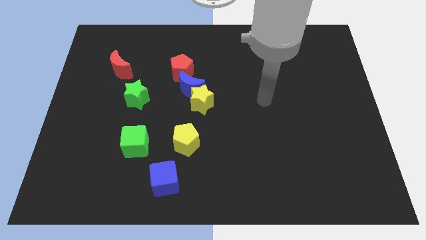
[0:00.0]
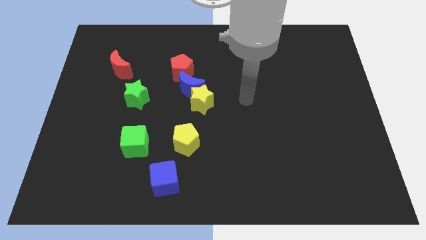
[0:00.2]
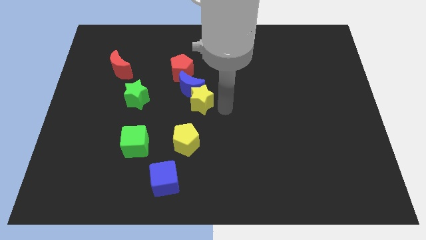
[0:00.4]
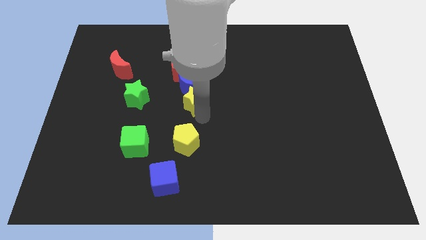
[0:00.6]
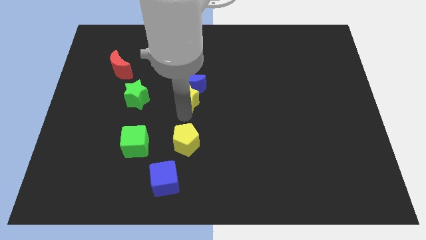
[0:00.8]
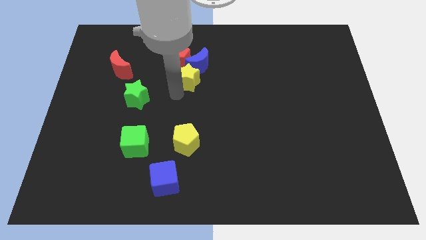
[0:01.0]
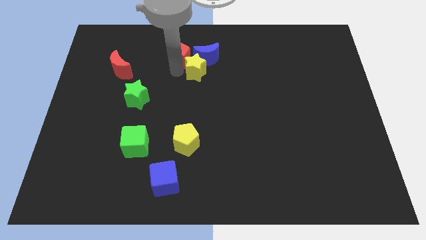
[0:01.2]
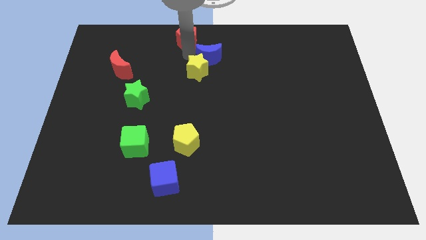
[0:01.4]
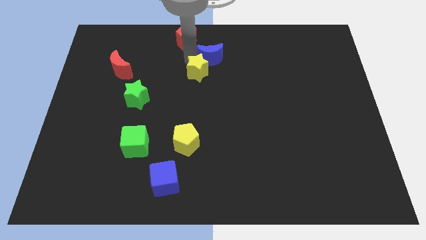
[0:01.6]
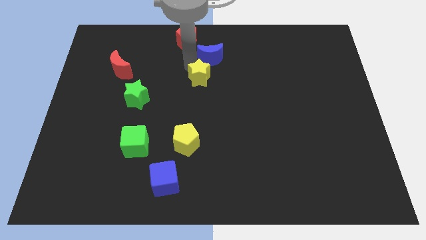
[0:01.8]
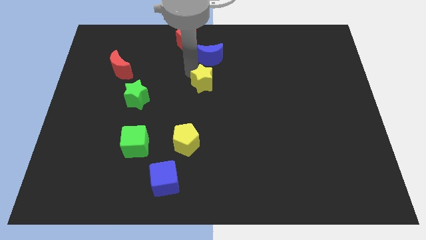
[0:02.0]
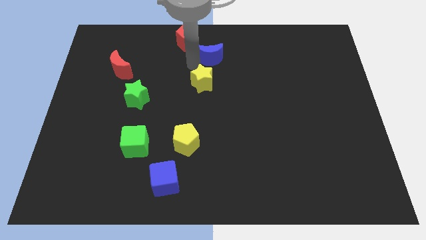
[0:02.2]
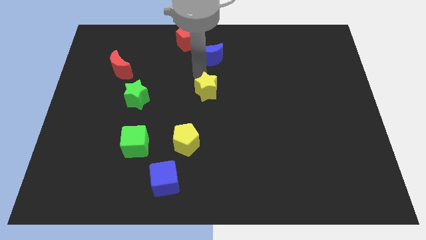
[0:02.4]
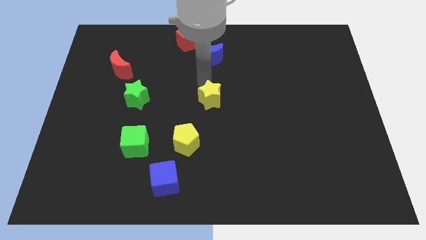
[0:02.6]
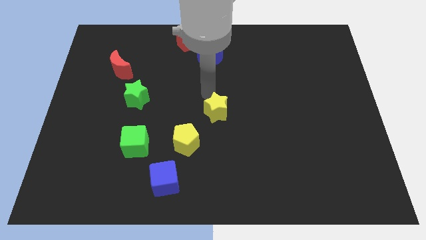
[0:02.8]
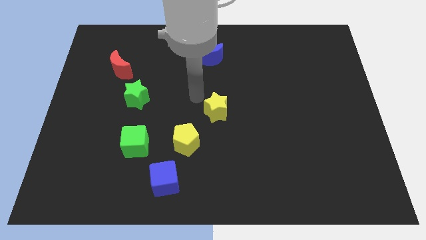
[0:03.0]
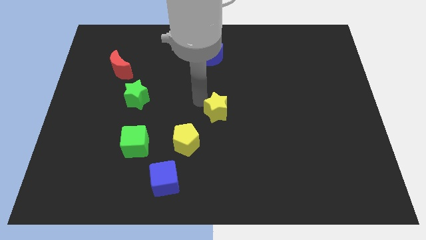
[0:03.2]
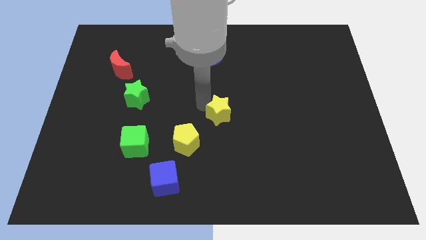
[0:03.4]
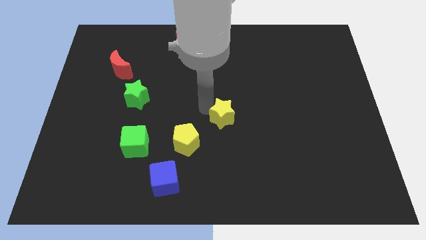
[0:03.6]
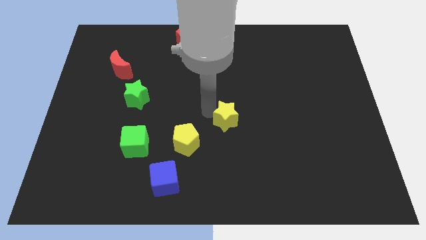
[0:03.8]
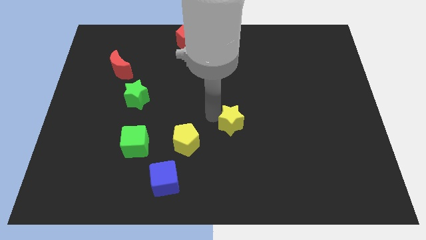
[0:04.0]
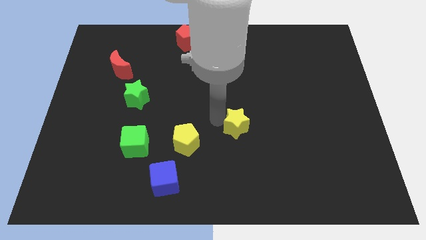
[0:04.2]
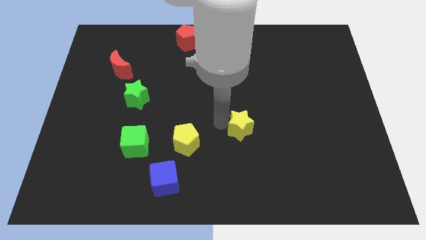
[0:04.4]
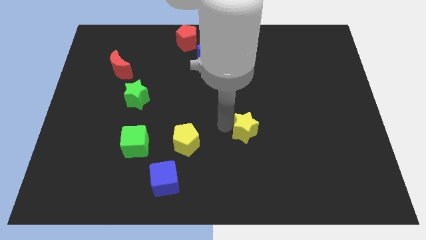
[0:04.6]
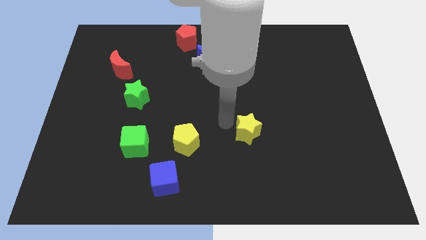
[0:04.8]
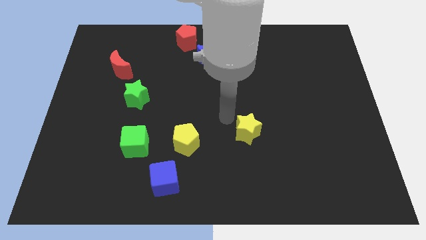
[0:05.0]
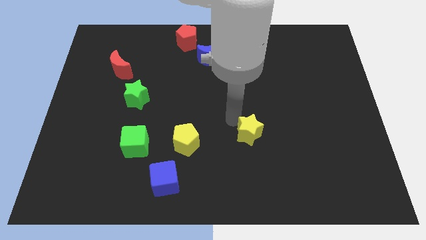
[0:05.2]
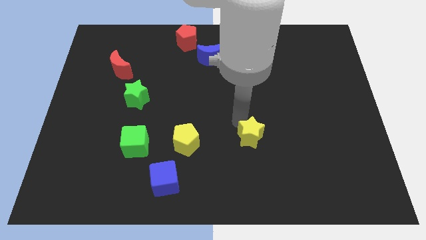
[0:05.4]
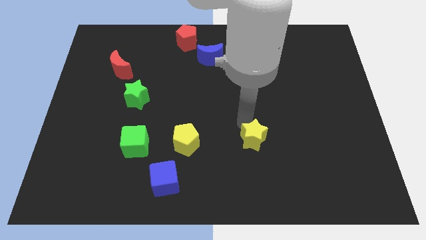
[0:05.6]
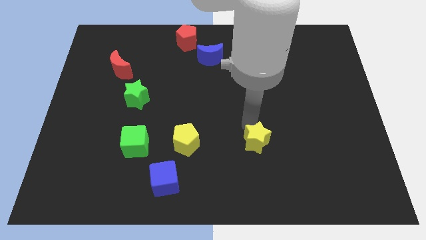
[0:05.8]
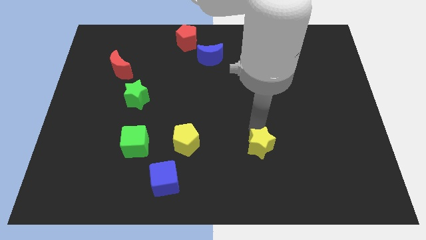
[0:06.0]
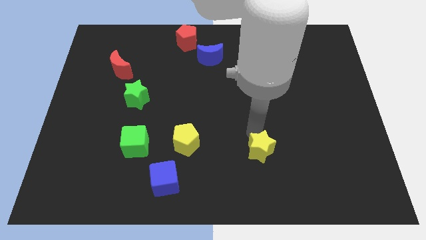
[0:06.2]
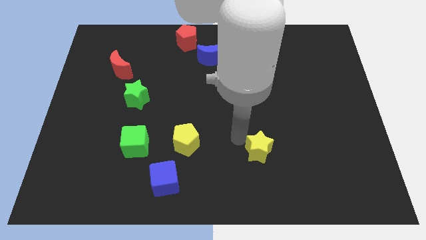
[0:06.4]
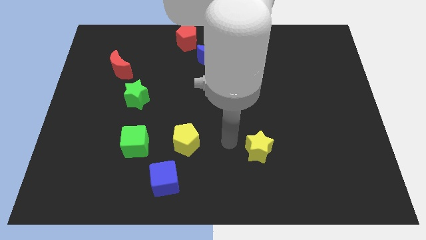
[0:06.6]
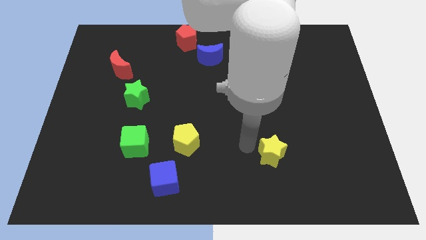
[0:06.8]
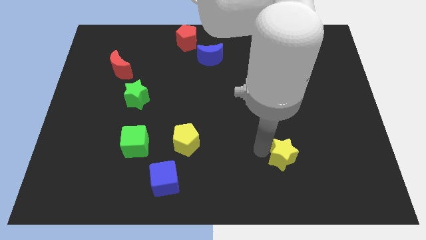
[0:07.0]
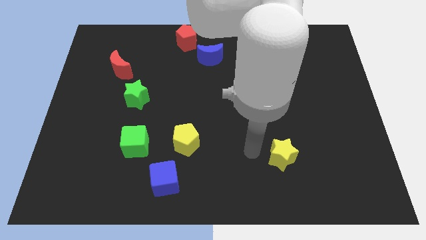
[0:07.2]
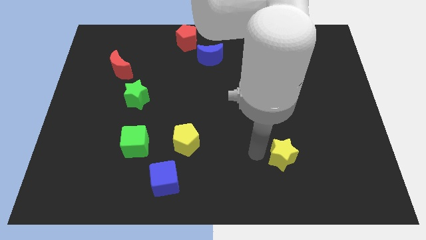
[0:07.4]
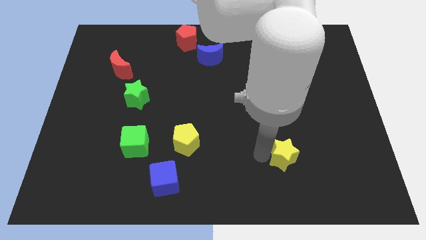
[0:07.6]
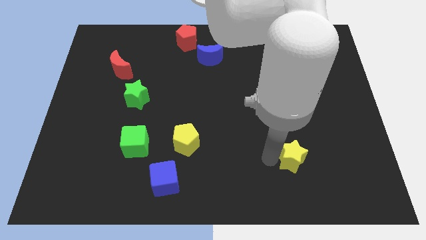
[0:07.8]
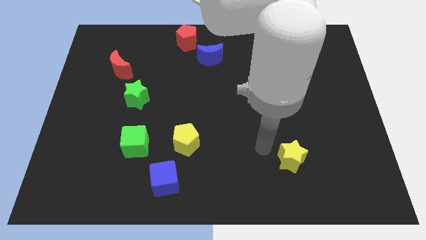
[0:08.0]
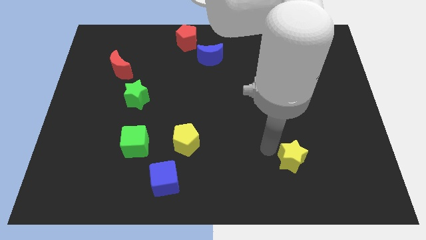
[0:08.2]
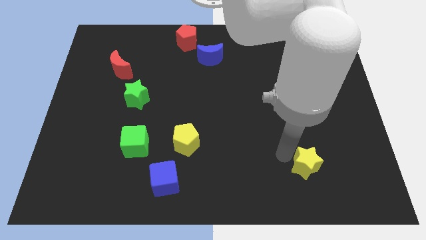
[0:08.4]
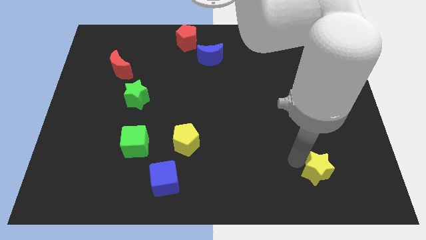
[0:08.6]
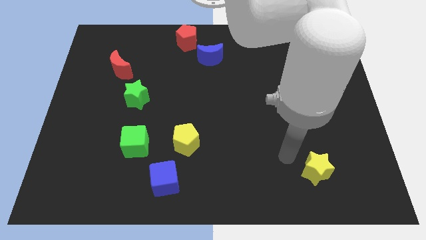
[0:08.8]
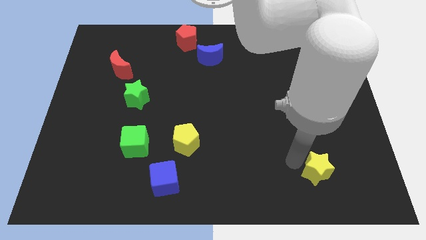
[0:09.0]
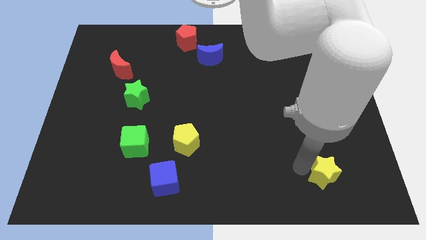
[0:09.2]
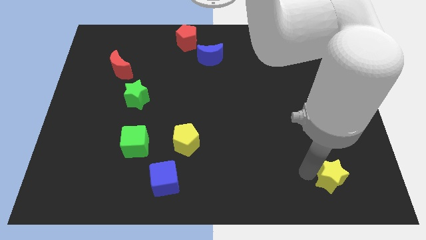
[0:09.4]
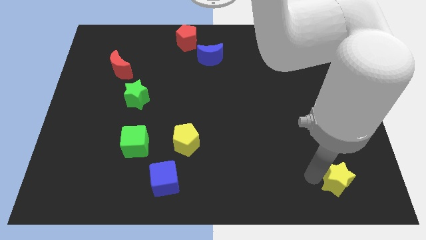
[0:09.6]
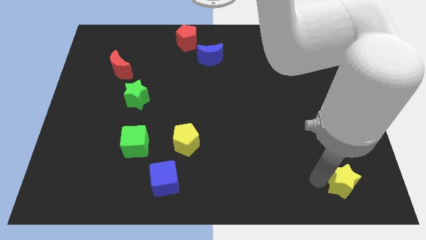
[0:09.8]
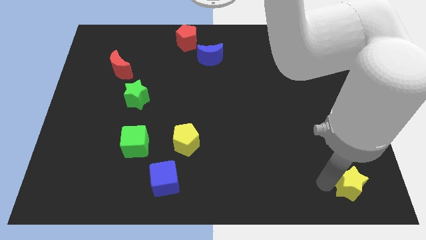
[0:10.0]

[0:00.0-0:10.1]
put the yellow star to the bottom right corner

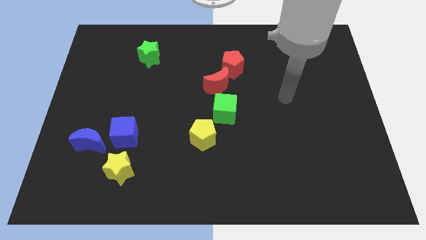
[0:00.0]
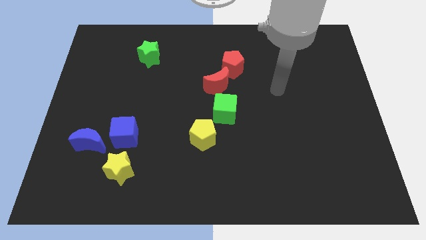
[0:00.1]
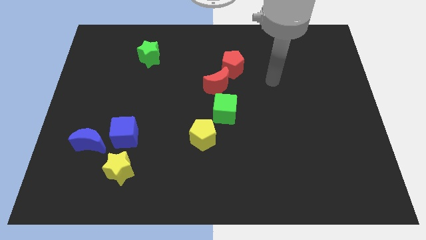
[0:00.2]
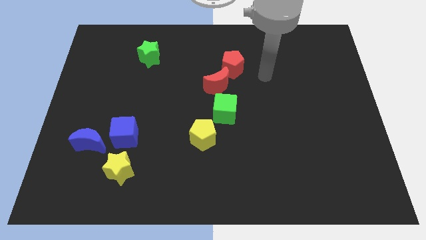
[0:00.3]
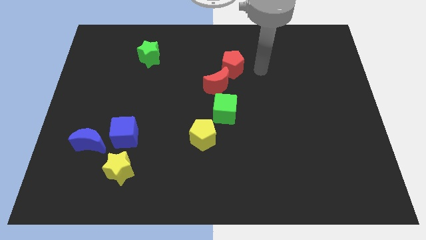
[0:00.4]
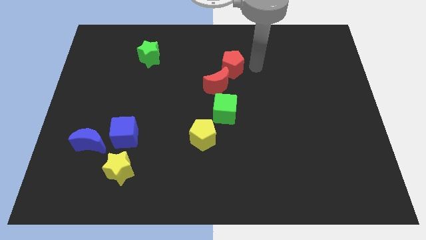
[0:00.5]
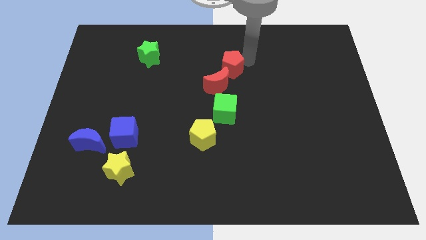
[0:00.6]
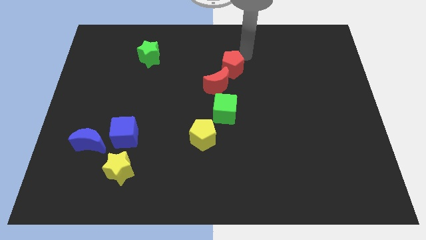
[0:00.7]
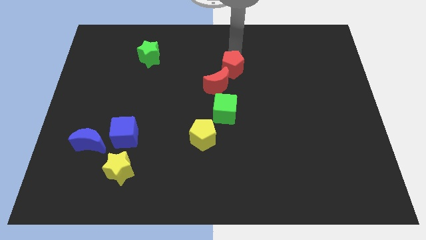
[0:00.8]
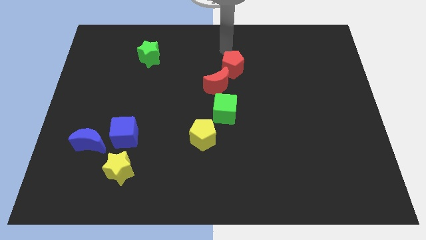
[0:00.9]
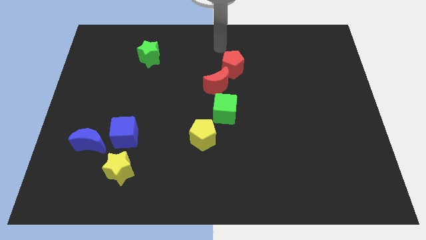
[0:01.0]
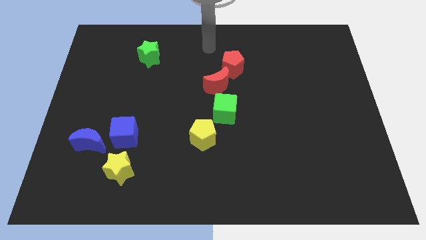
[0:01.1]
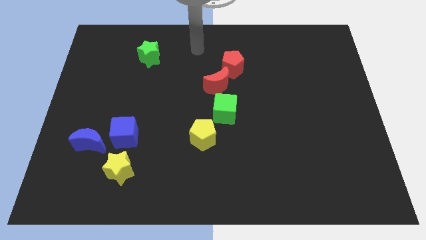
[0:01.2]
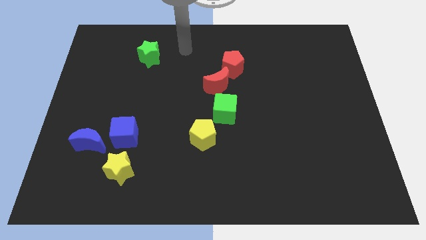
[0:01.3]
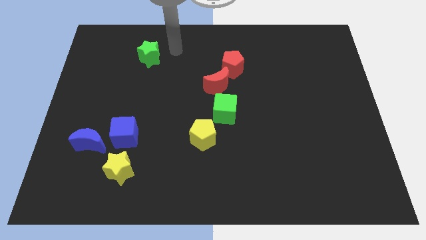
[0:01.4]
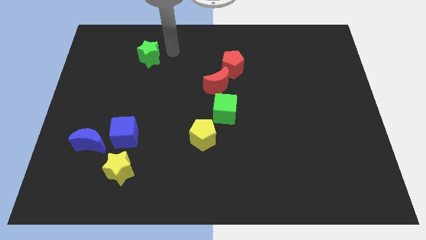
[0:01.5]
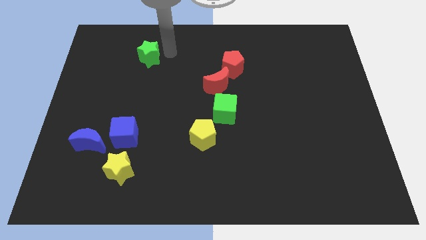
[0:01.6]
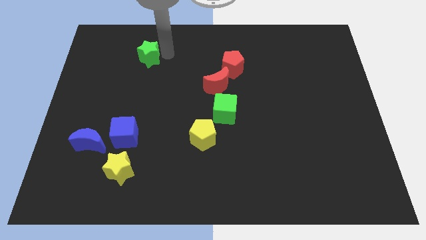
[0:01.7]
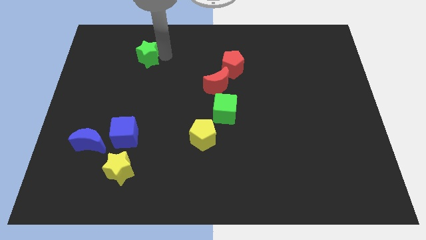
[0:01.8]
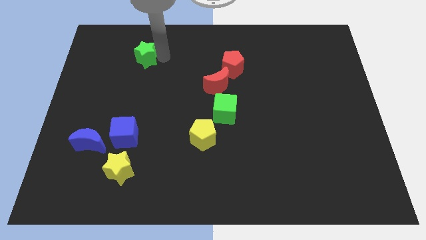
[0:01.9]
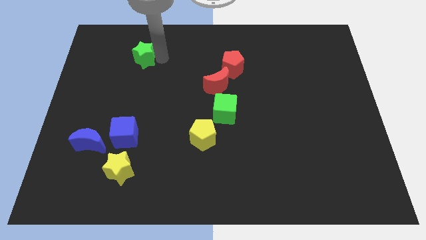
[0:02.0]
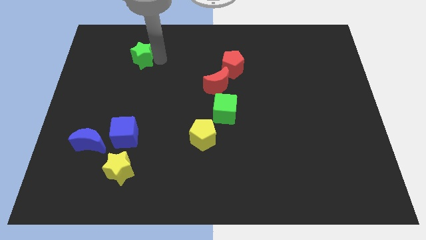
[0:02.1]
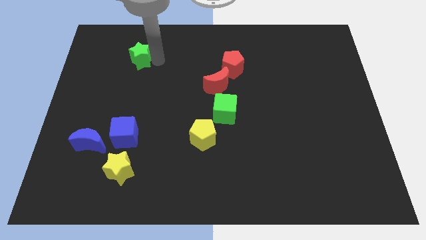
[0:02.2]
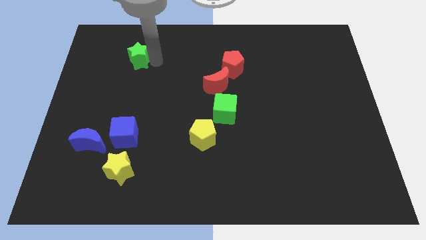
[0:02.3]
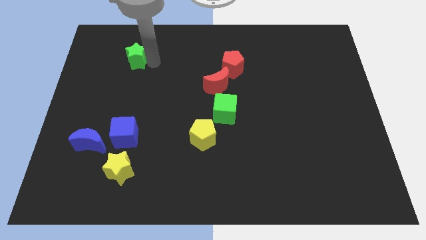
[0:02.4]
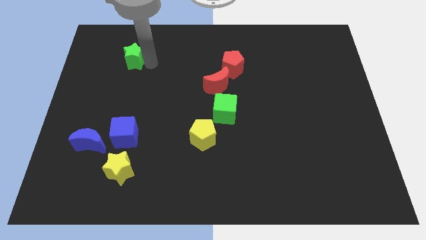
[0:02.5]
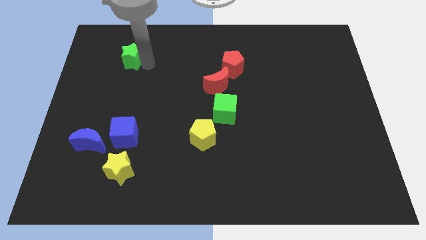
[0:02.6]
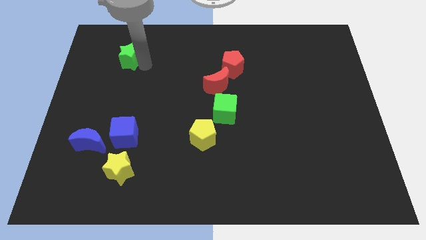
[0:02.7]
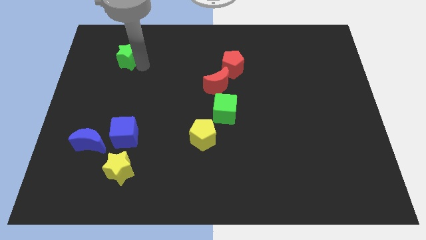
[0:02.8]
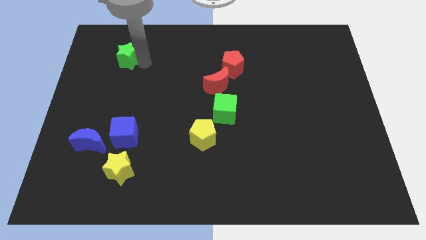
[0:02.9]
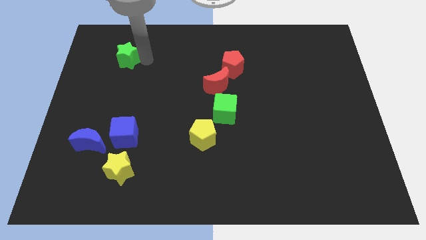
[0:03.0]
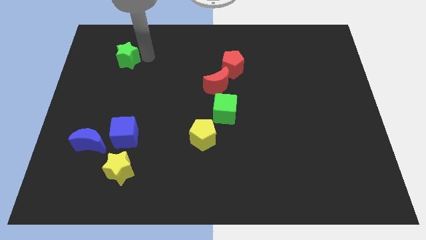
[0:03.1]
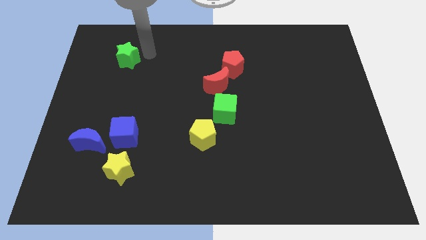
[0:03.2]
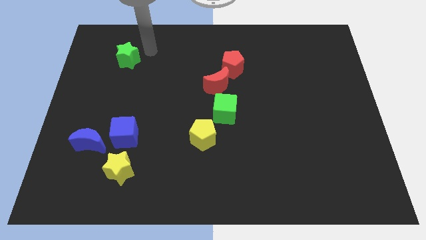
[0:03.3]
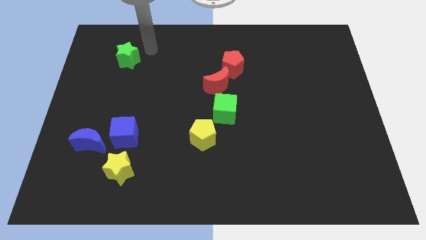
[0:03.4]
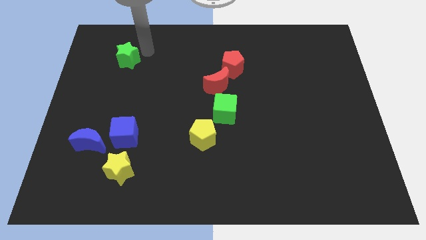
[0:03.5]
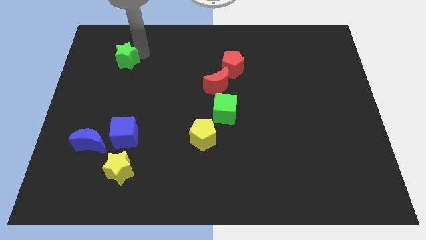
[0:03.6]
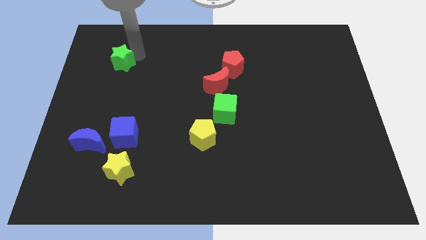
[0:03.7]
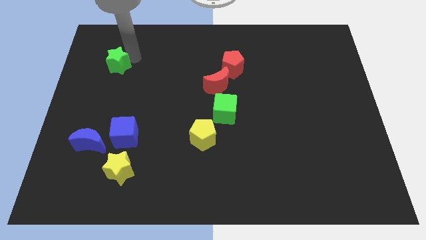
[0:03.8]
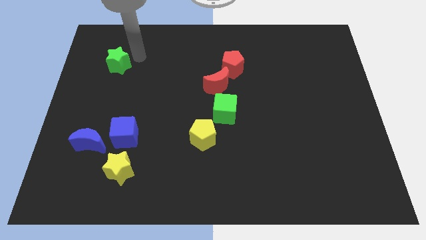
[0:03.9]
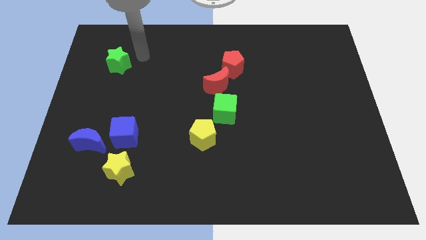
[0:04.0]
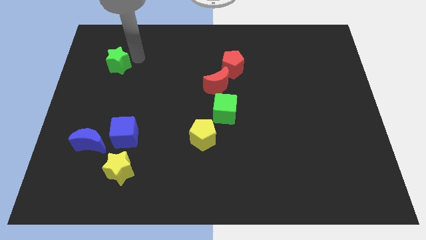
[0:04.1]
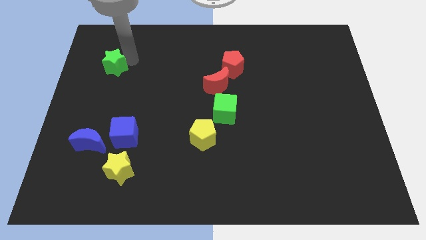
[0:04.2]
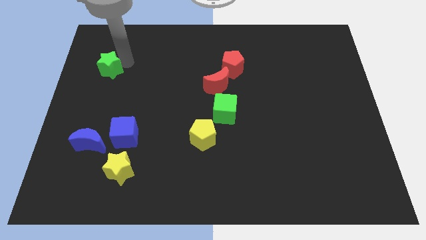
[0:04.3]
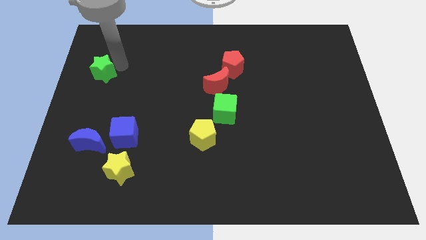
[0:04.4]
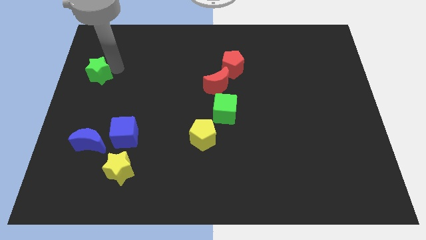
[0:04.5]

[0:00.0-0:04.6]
put the green star to the left side of the board
